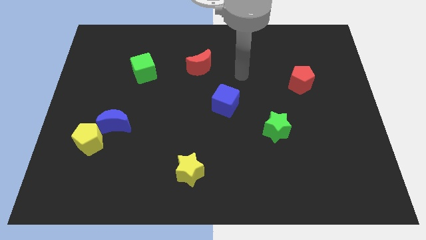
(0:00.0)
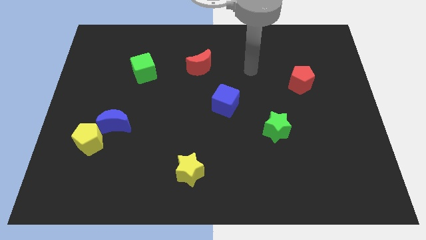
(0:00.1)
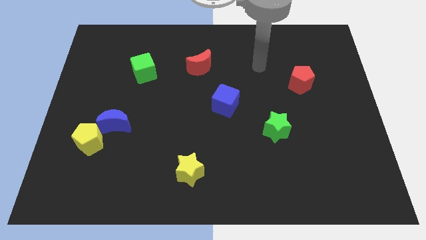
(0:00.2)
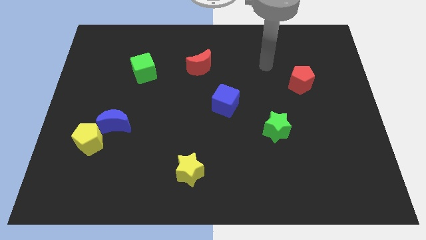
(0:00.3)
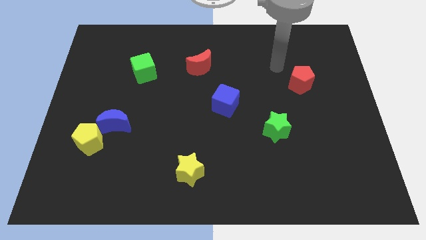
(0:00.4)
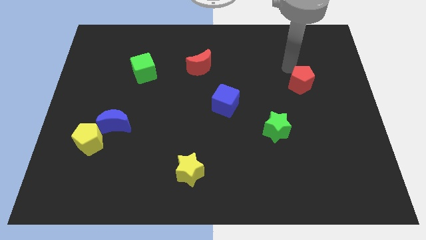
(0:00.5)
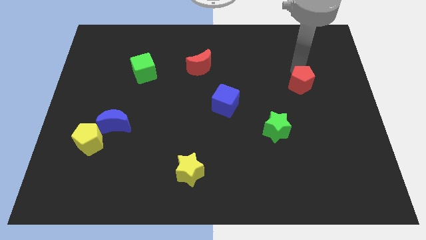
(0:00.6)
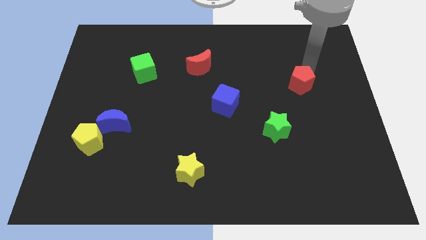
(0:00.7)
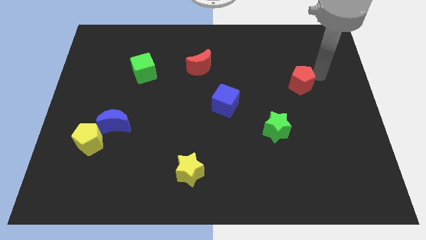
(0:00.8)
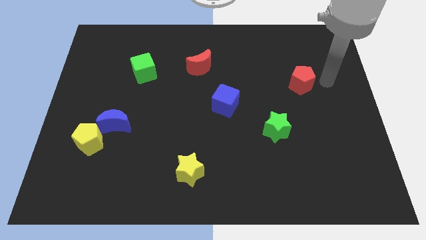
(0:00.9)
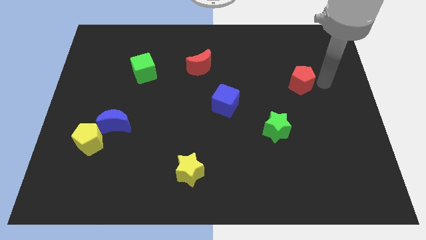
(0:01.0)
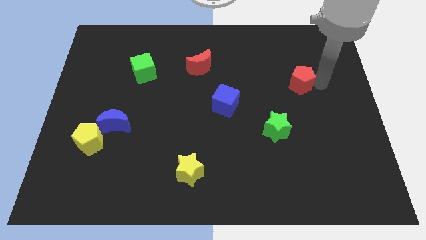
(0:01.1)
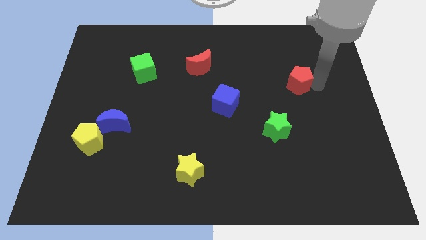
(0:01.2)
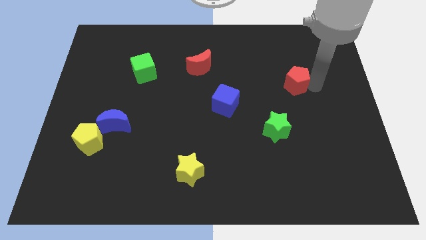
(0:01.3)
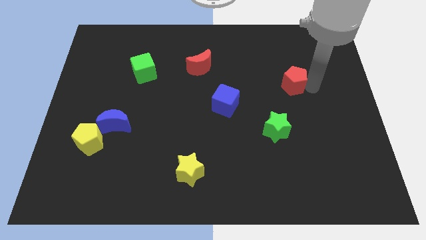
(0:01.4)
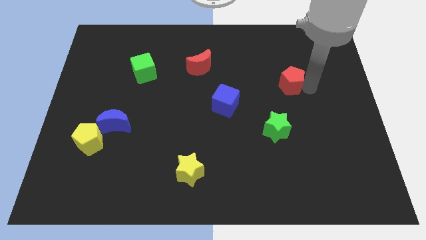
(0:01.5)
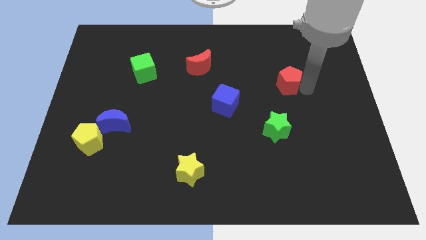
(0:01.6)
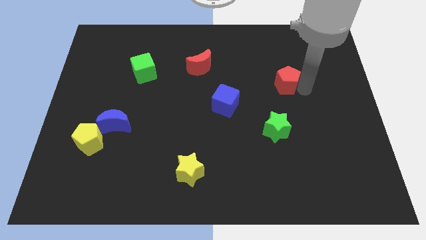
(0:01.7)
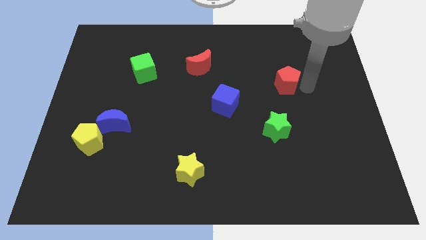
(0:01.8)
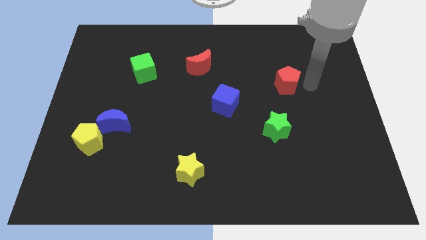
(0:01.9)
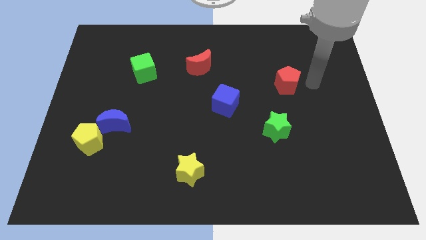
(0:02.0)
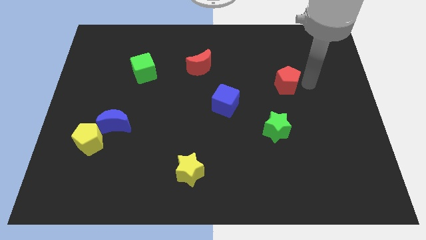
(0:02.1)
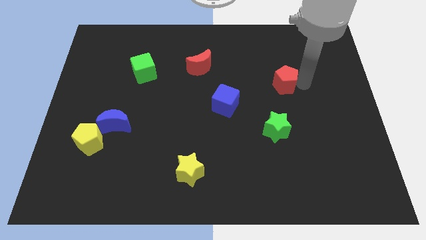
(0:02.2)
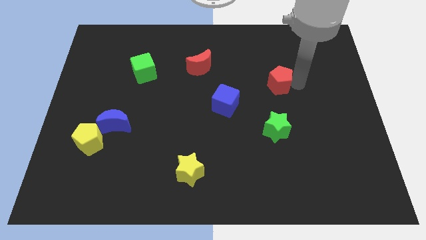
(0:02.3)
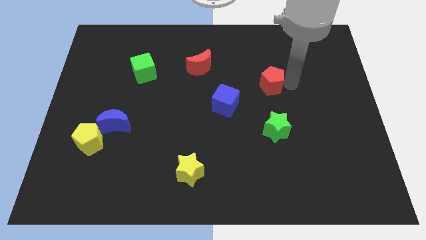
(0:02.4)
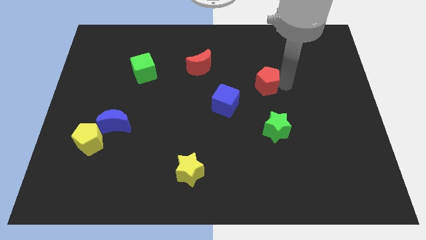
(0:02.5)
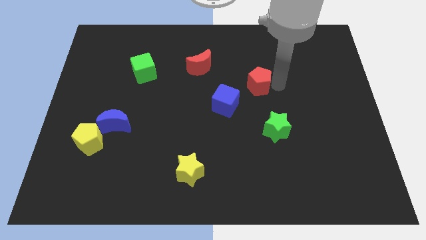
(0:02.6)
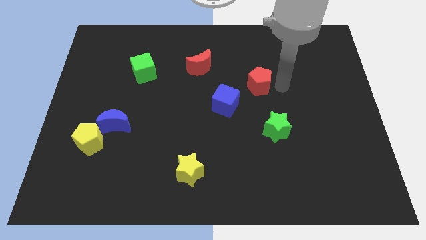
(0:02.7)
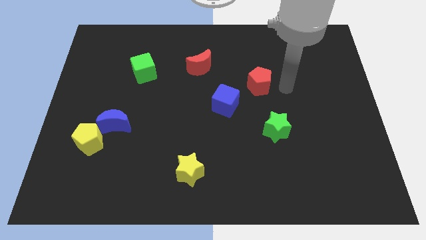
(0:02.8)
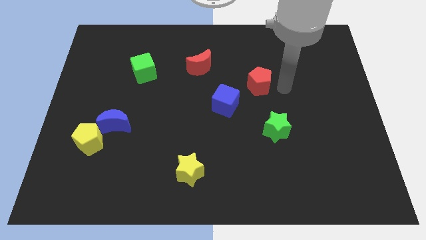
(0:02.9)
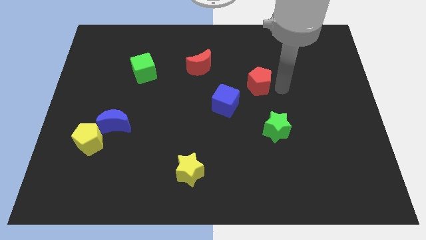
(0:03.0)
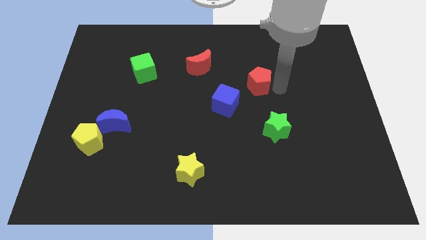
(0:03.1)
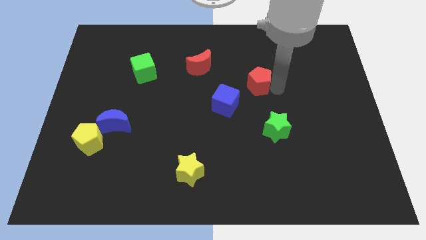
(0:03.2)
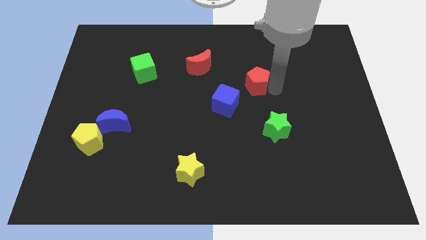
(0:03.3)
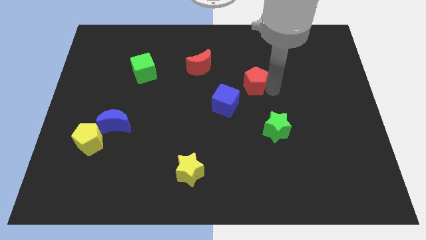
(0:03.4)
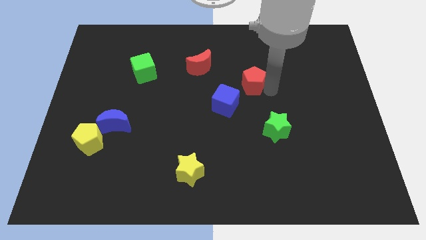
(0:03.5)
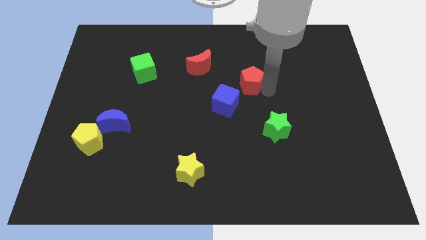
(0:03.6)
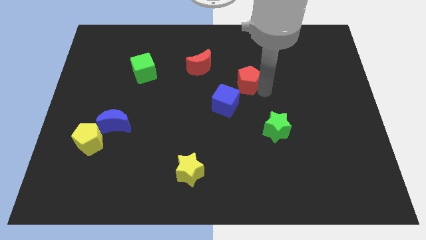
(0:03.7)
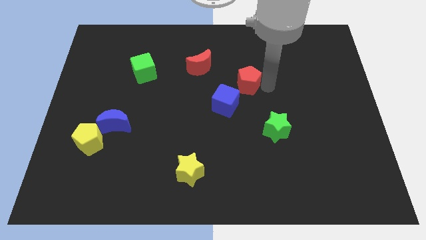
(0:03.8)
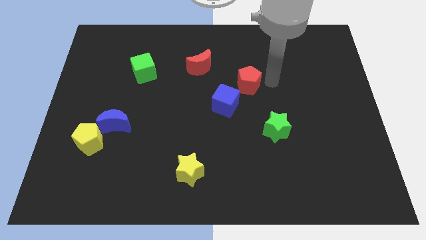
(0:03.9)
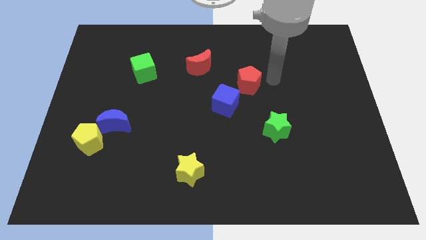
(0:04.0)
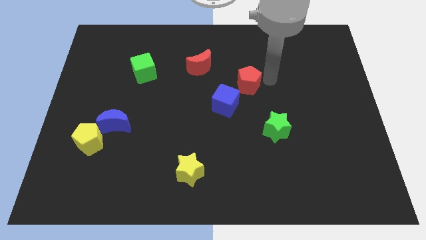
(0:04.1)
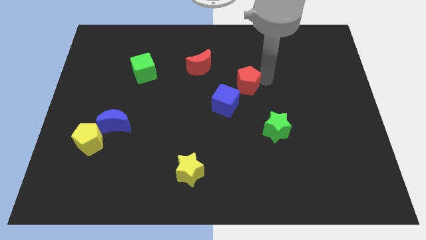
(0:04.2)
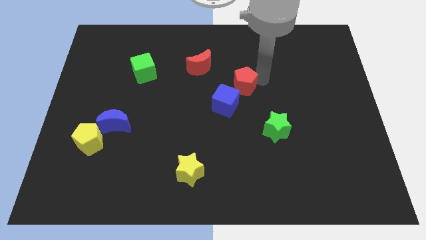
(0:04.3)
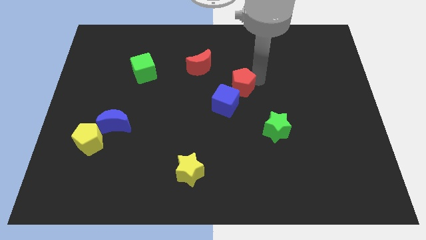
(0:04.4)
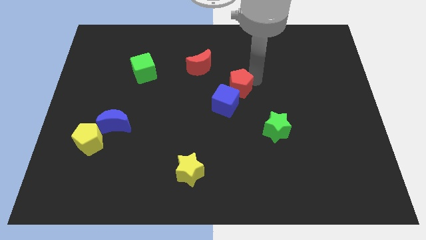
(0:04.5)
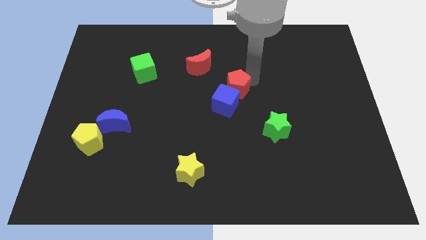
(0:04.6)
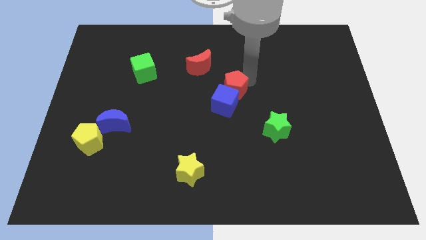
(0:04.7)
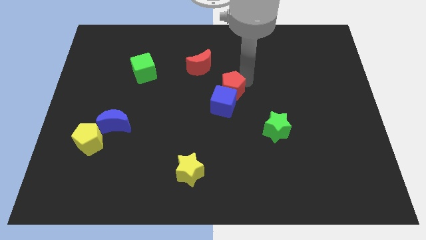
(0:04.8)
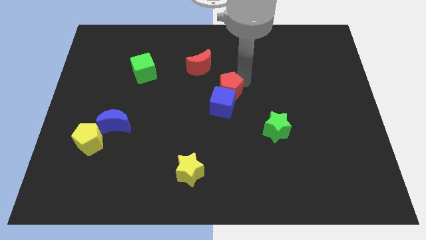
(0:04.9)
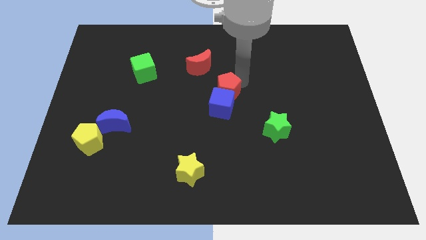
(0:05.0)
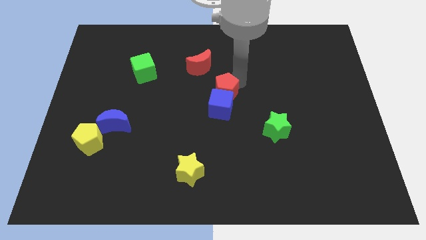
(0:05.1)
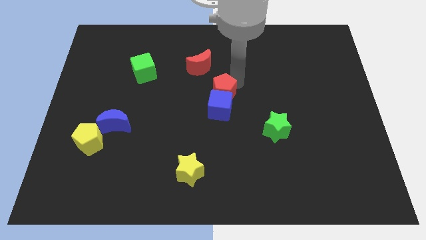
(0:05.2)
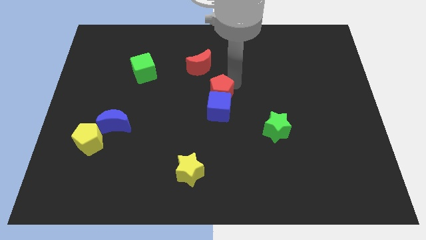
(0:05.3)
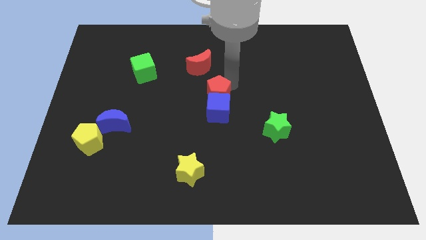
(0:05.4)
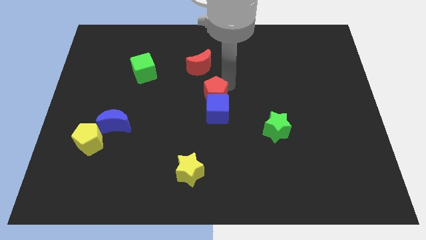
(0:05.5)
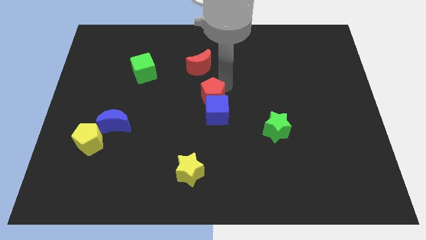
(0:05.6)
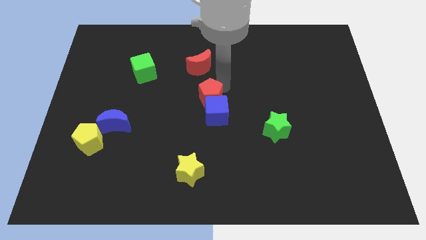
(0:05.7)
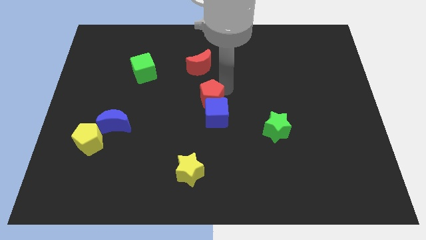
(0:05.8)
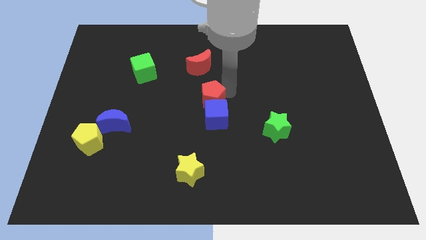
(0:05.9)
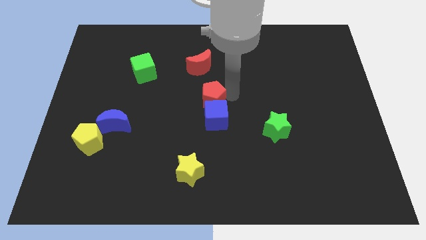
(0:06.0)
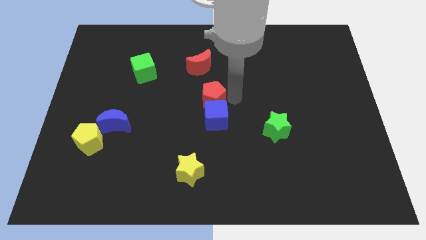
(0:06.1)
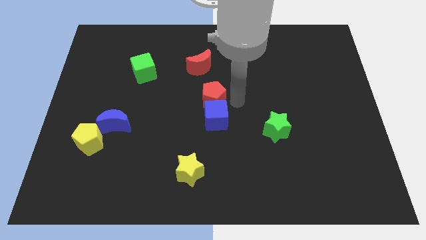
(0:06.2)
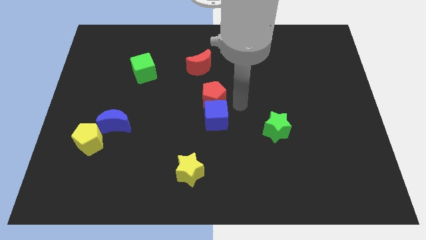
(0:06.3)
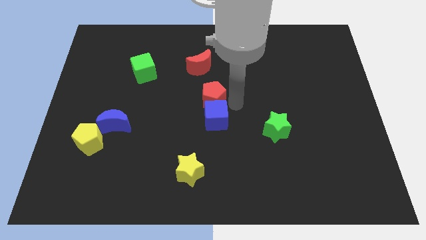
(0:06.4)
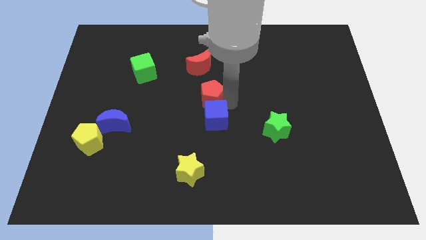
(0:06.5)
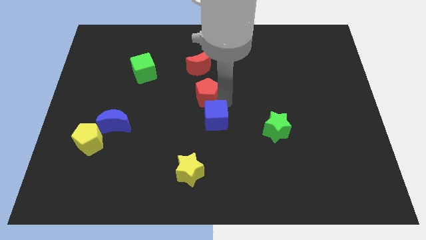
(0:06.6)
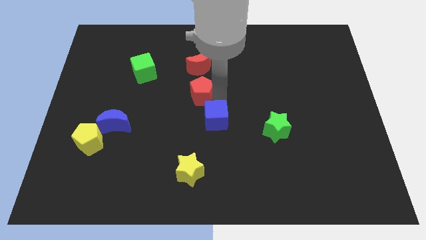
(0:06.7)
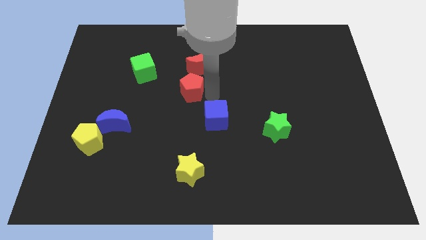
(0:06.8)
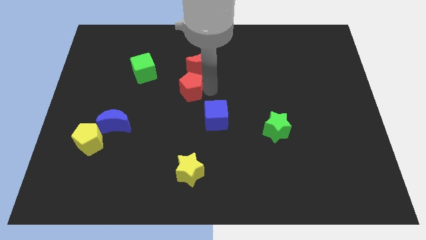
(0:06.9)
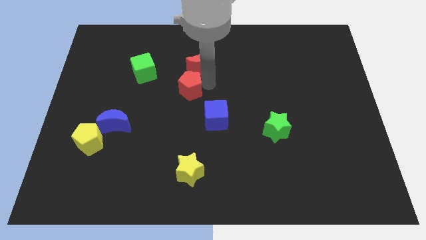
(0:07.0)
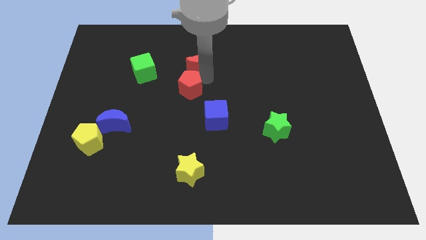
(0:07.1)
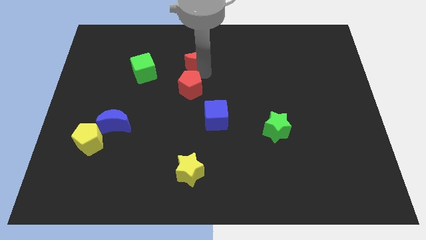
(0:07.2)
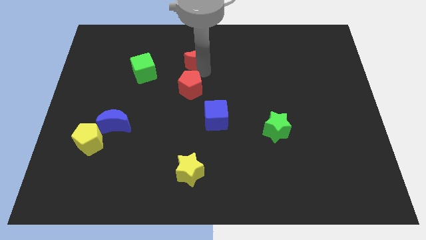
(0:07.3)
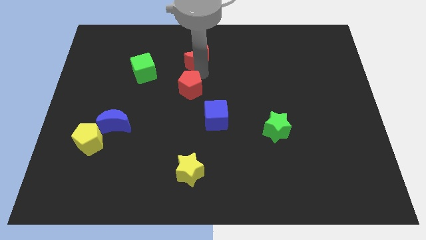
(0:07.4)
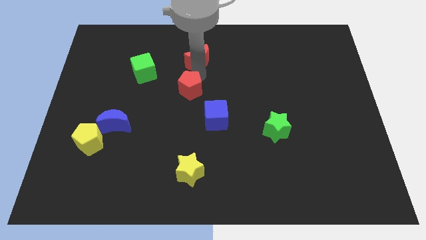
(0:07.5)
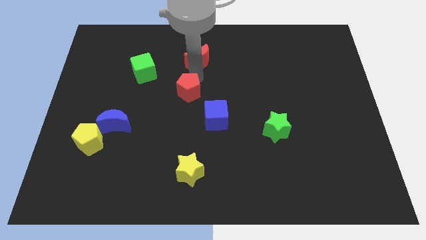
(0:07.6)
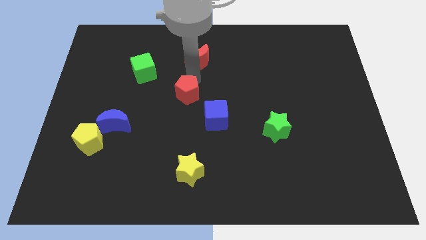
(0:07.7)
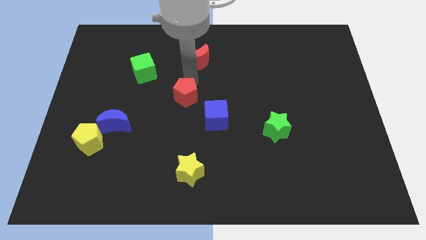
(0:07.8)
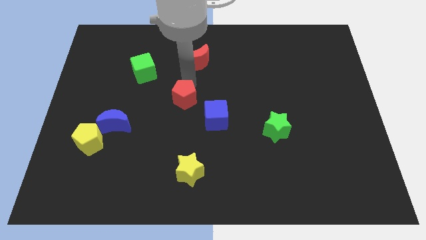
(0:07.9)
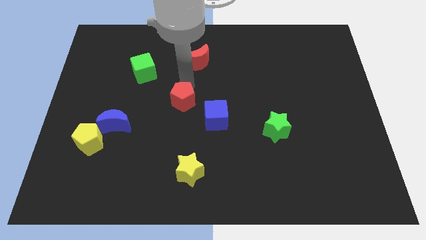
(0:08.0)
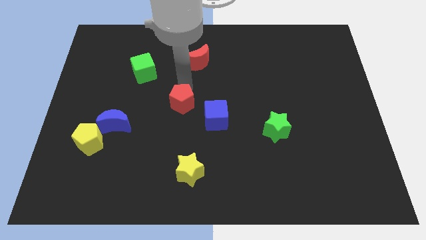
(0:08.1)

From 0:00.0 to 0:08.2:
slide the red pentagon just left of the blue cube
